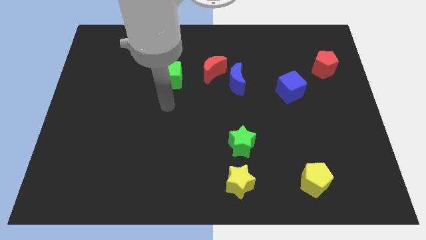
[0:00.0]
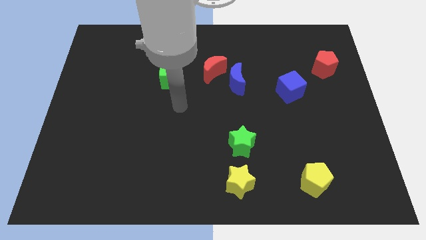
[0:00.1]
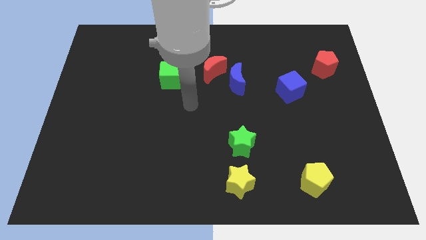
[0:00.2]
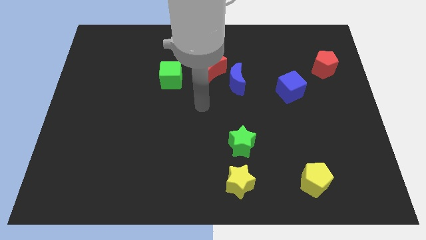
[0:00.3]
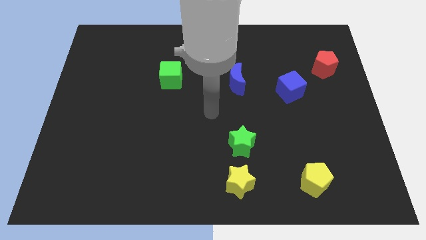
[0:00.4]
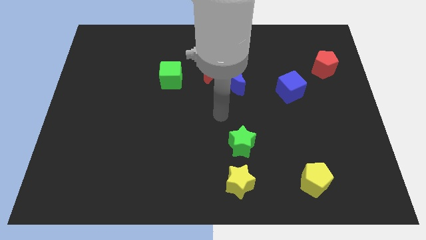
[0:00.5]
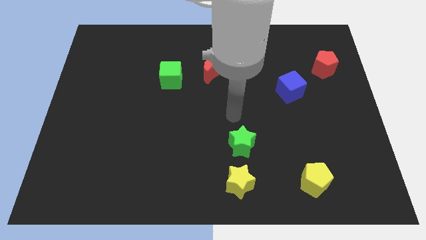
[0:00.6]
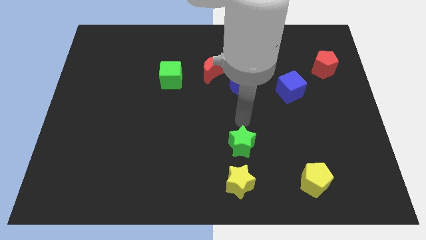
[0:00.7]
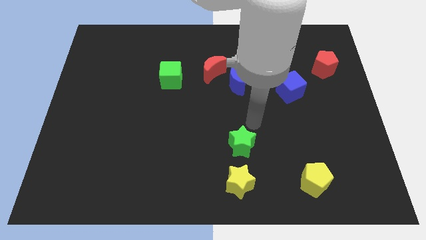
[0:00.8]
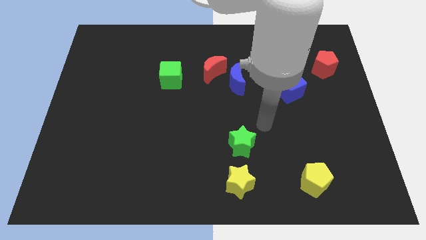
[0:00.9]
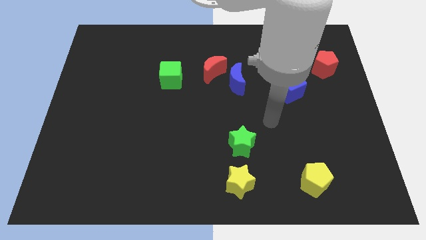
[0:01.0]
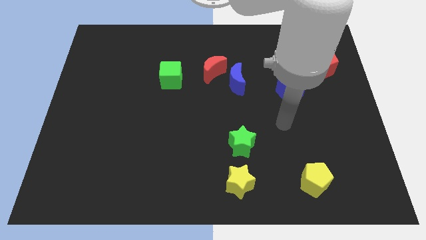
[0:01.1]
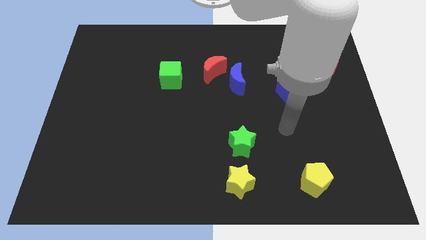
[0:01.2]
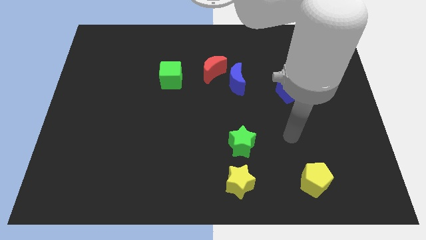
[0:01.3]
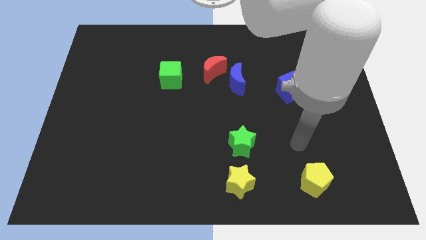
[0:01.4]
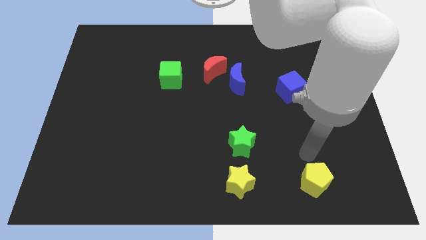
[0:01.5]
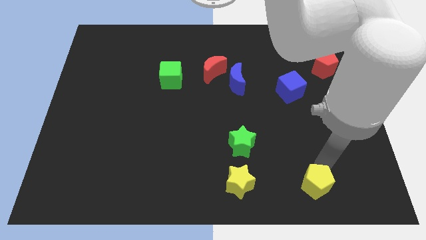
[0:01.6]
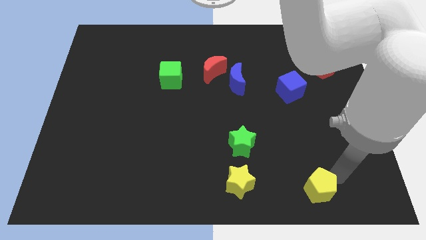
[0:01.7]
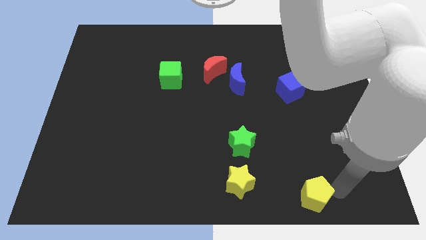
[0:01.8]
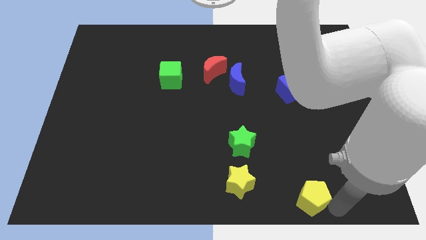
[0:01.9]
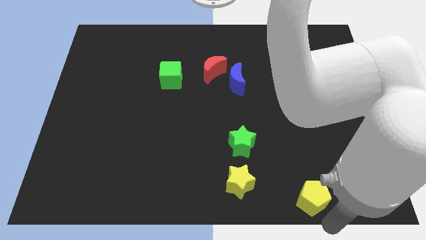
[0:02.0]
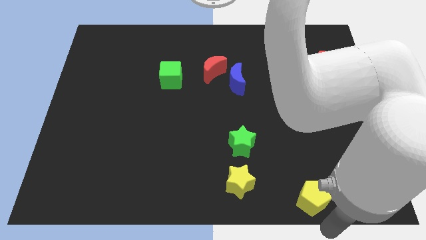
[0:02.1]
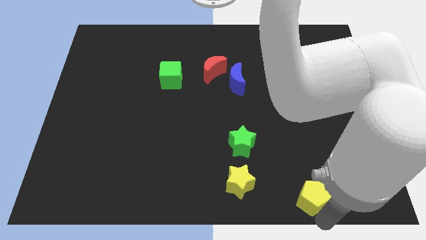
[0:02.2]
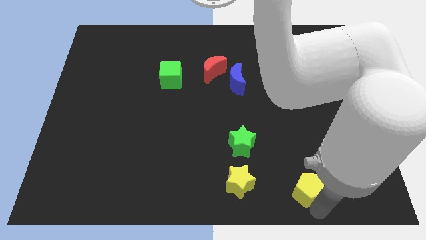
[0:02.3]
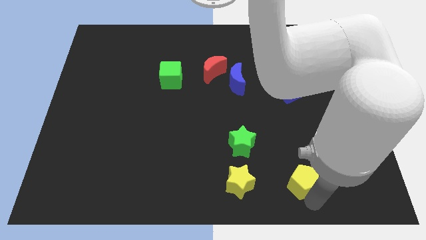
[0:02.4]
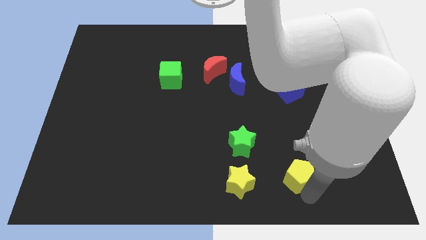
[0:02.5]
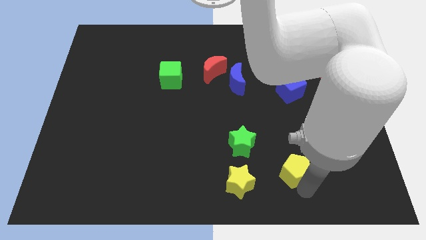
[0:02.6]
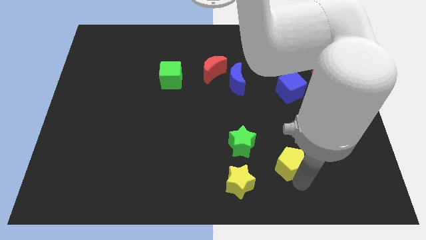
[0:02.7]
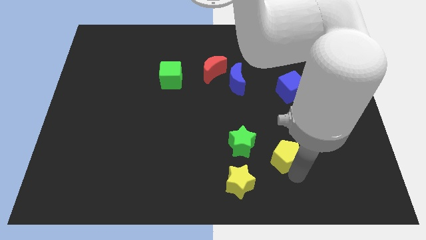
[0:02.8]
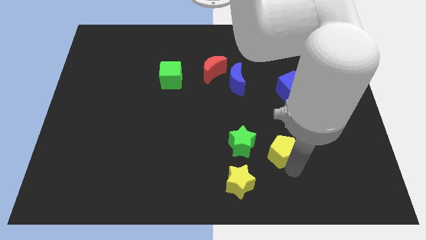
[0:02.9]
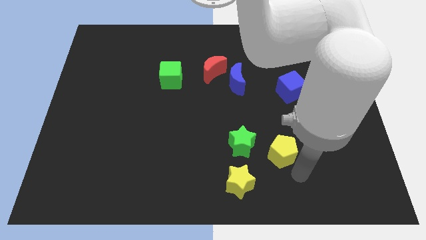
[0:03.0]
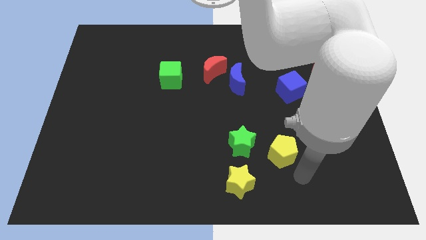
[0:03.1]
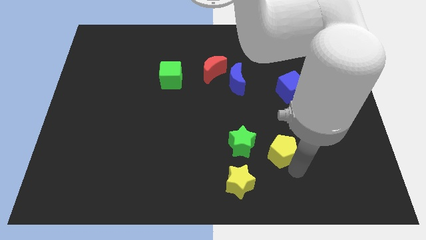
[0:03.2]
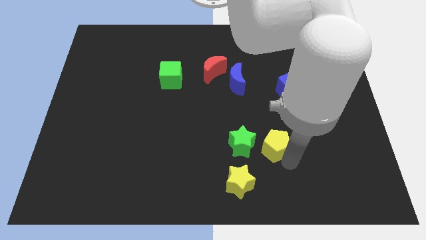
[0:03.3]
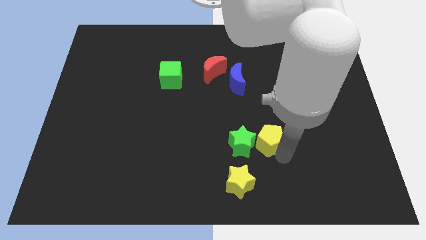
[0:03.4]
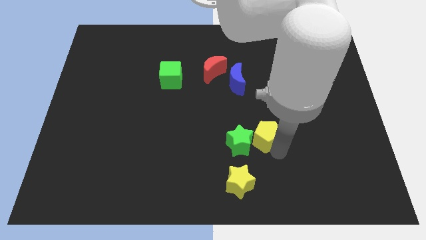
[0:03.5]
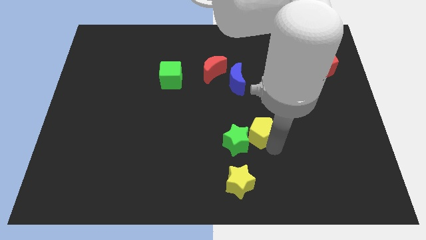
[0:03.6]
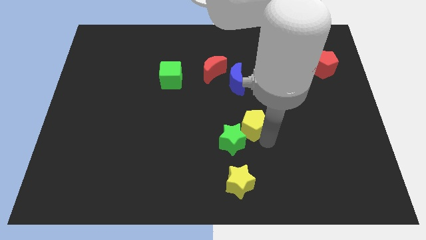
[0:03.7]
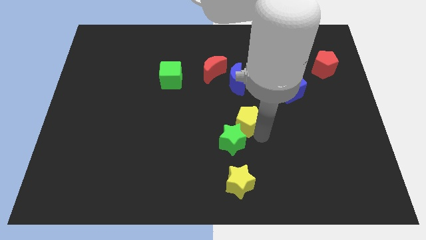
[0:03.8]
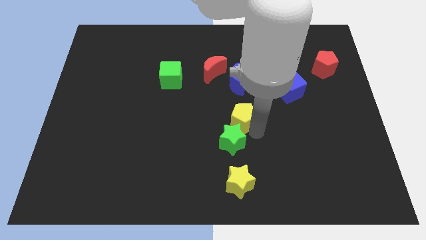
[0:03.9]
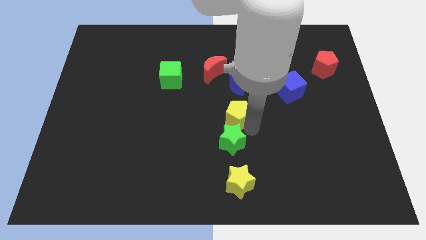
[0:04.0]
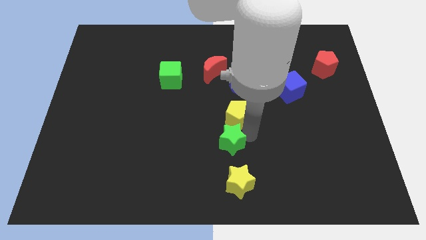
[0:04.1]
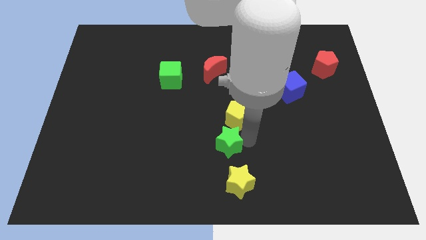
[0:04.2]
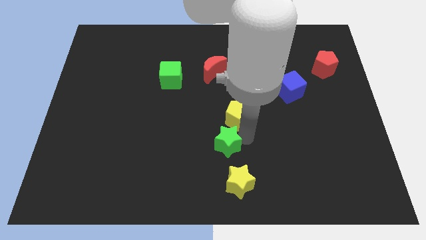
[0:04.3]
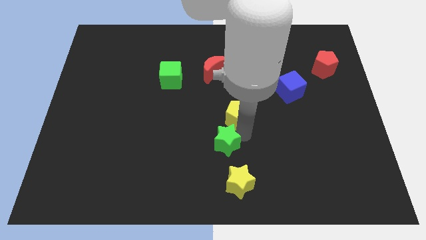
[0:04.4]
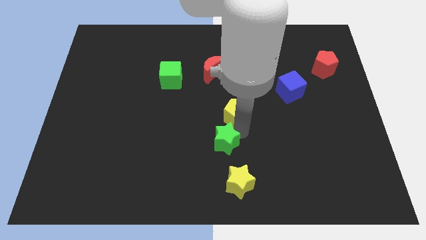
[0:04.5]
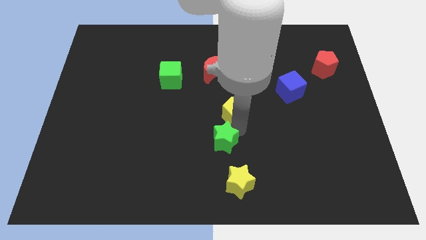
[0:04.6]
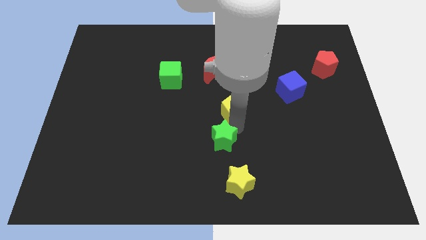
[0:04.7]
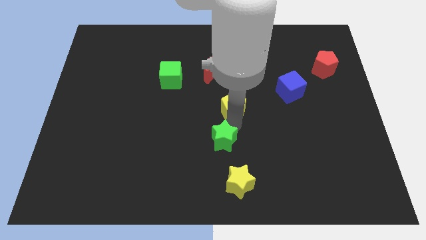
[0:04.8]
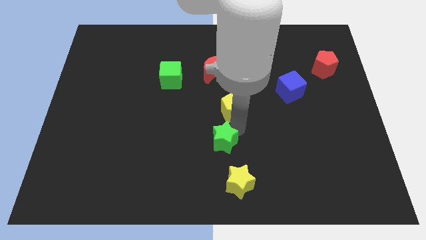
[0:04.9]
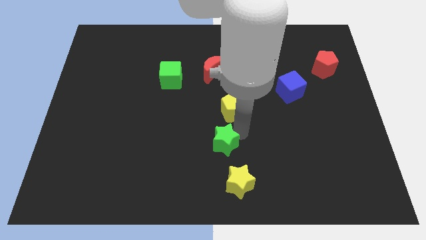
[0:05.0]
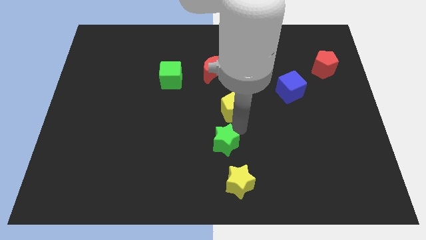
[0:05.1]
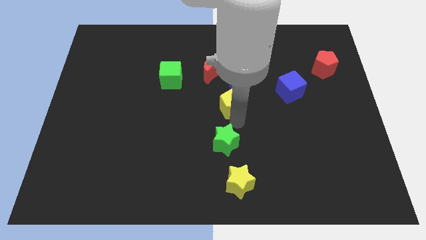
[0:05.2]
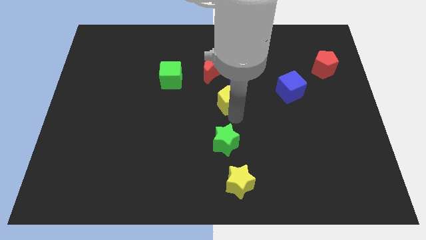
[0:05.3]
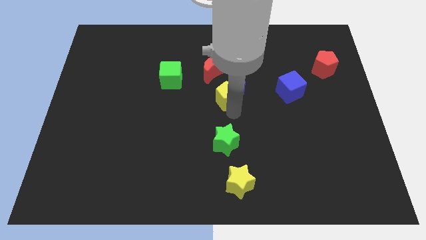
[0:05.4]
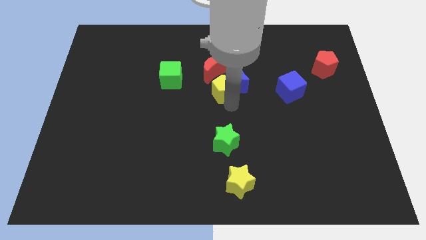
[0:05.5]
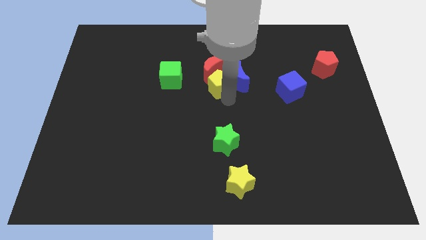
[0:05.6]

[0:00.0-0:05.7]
push the yellow pentagon close to the red moon
